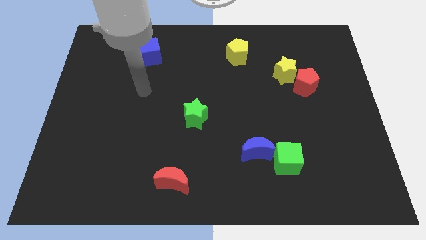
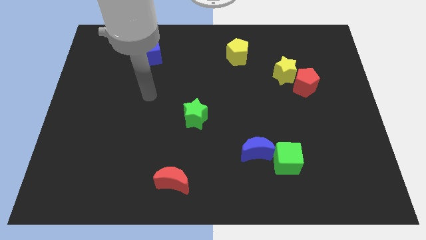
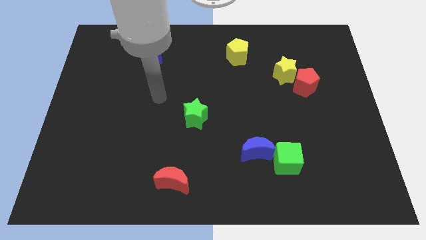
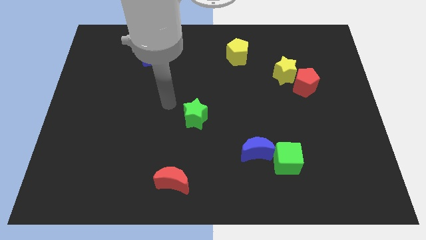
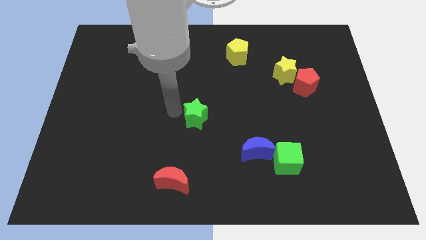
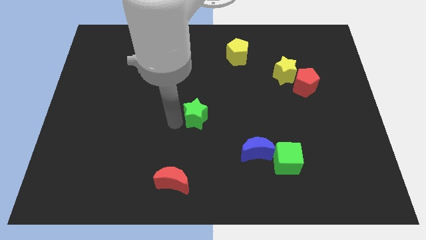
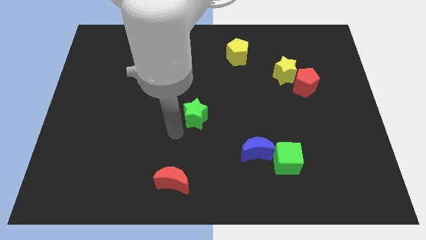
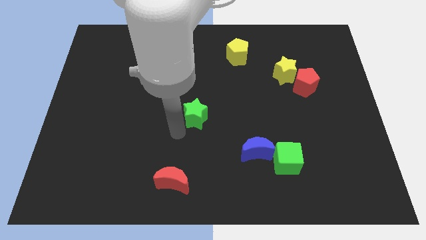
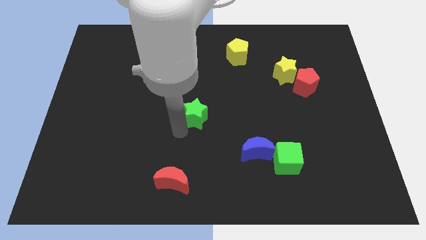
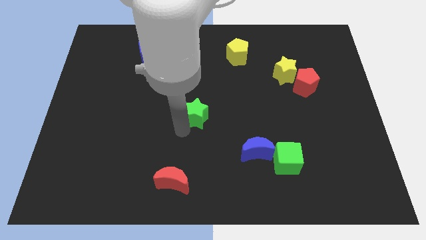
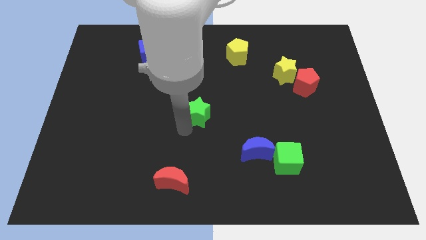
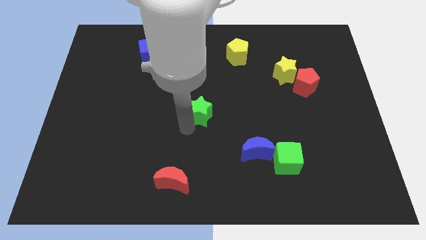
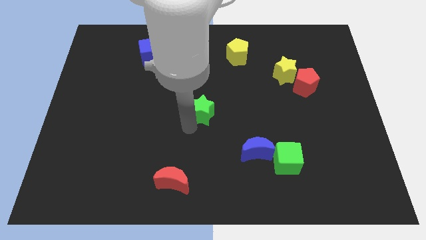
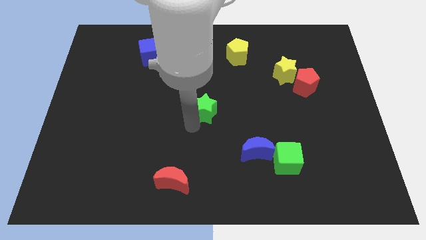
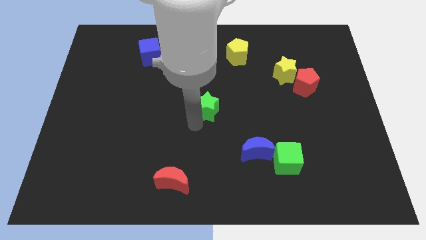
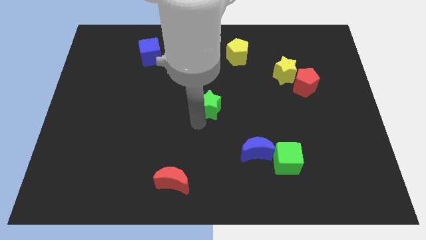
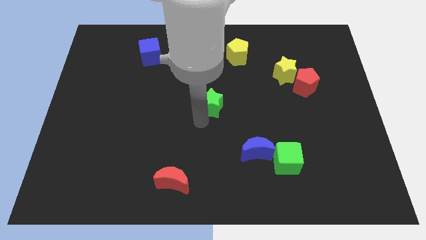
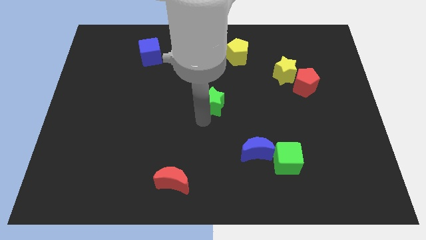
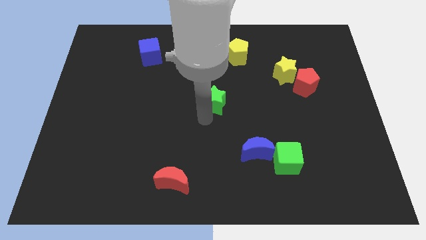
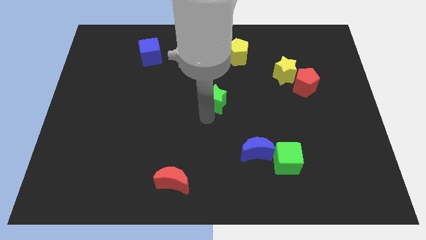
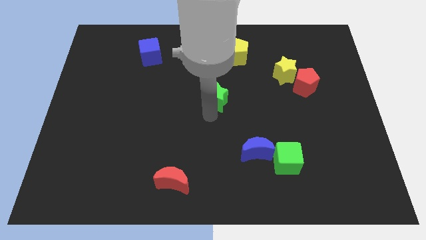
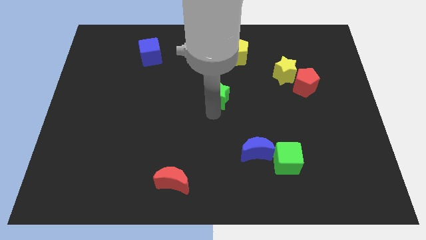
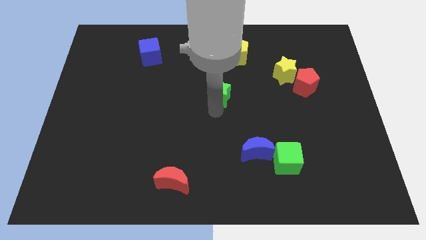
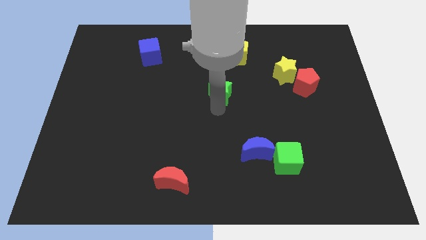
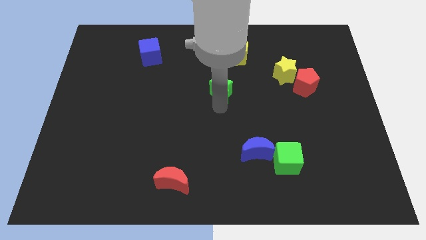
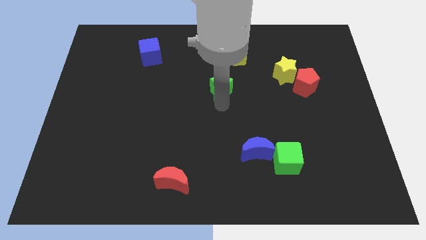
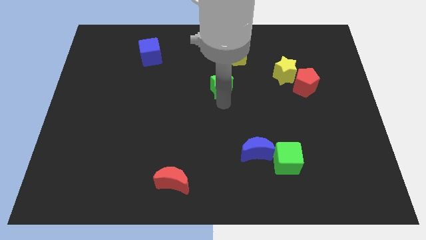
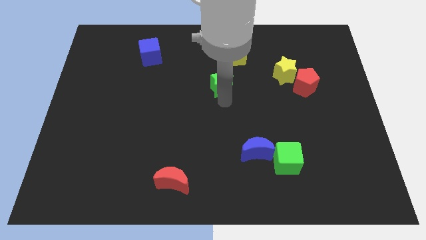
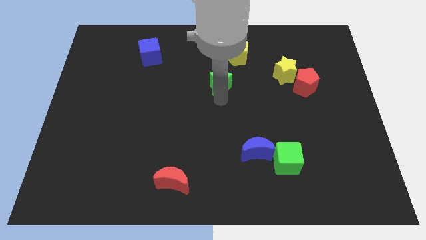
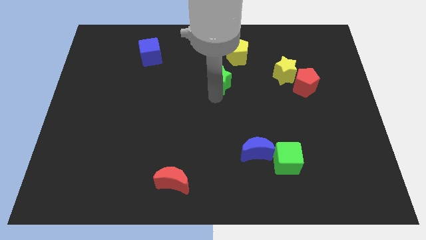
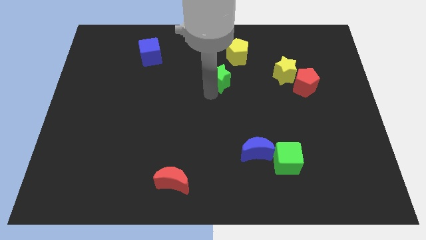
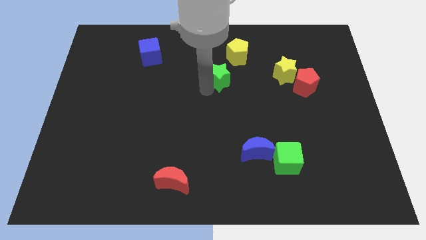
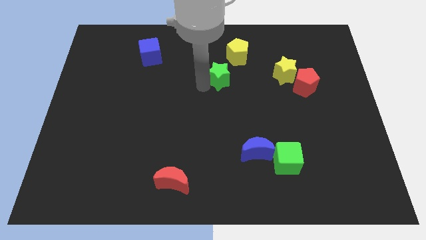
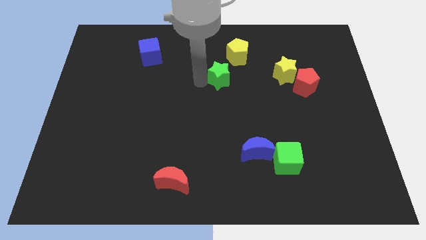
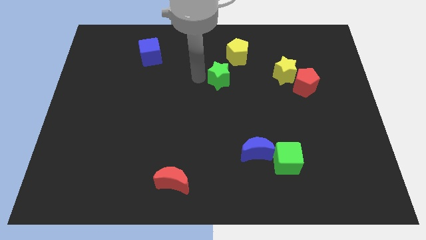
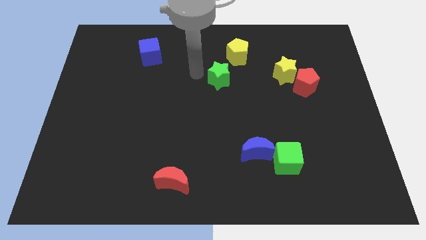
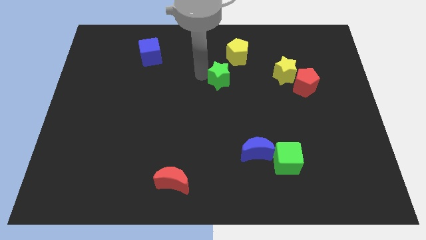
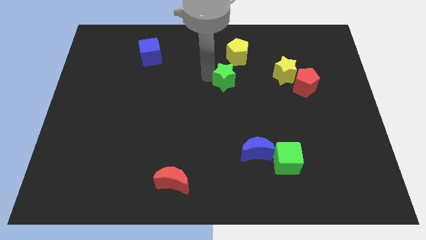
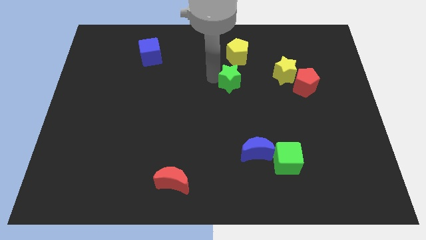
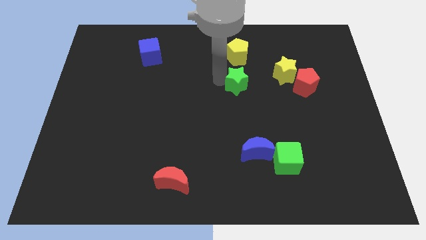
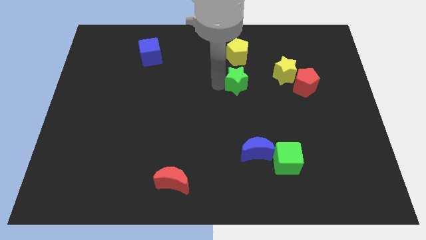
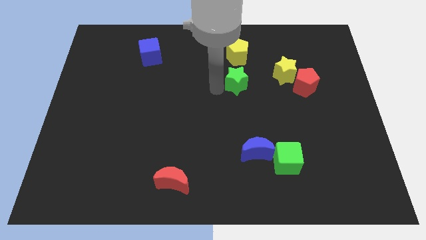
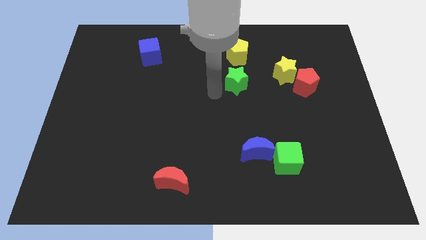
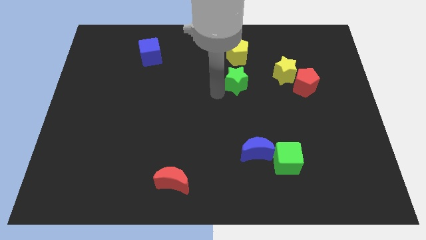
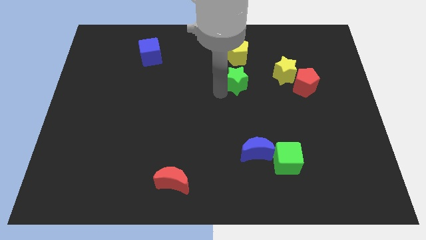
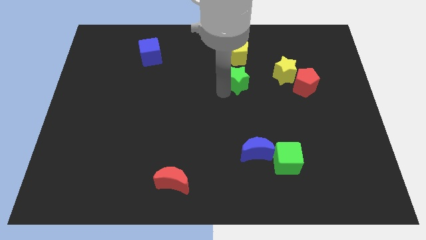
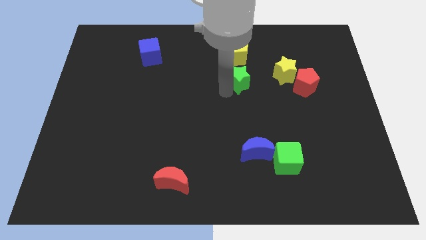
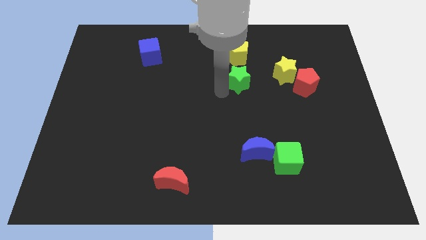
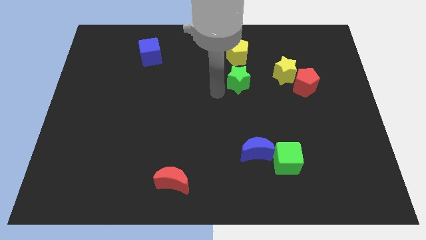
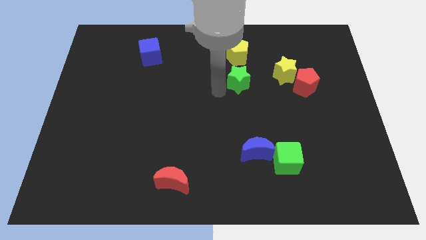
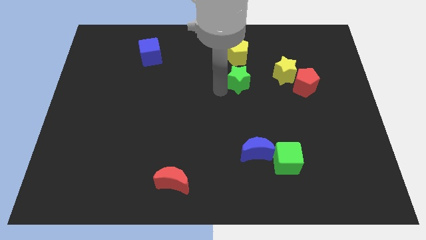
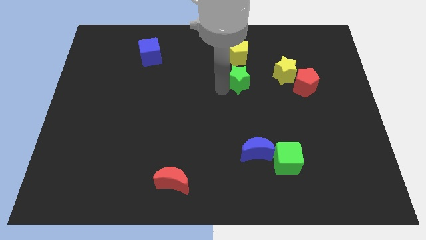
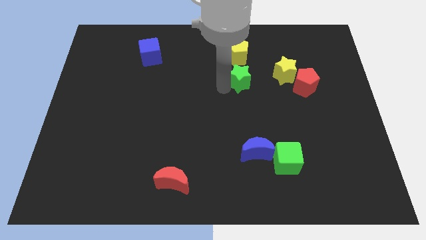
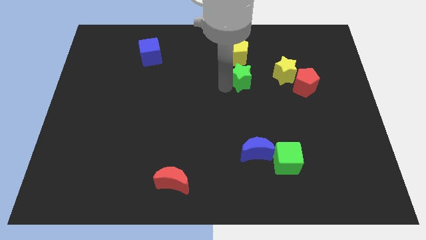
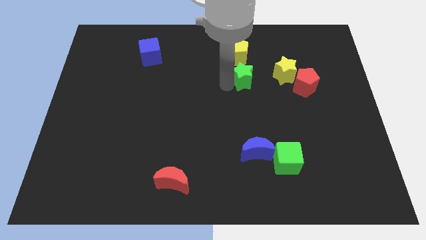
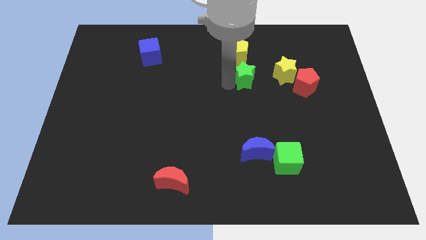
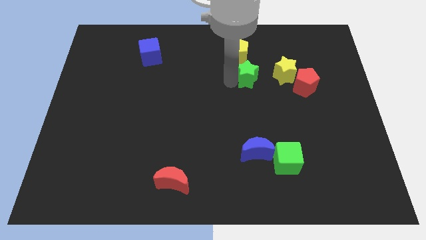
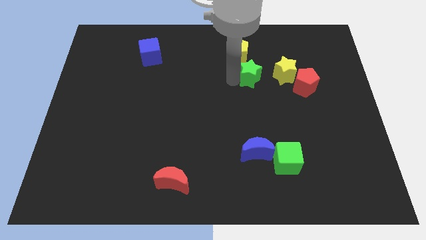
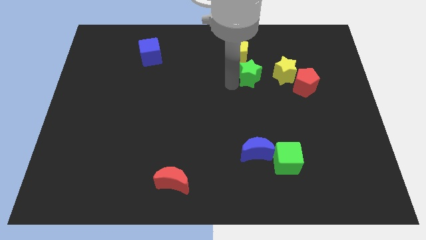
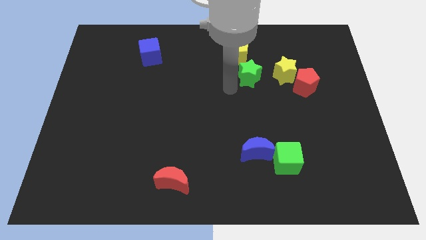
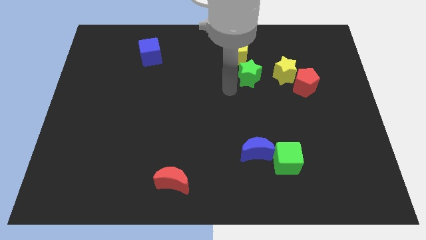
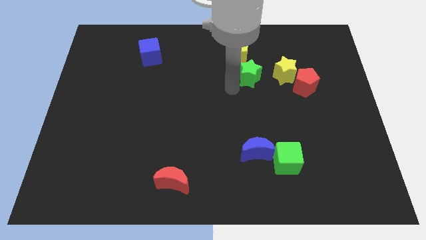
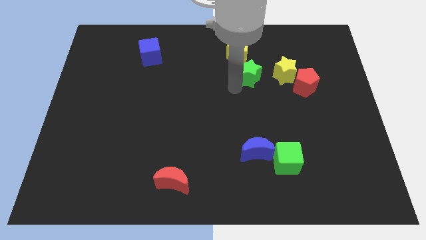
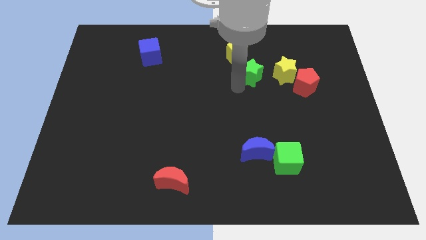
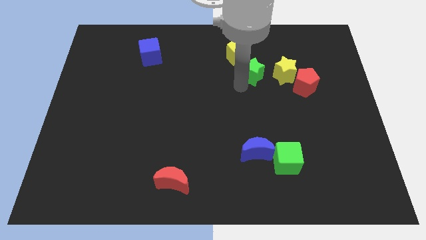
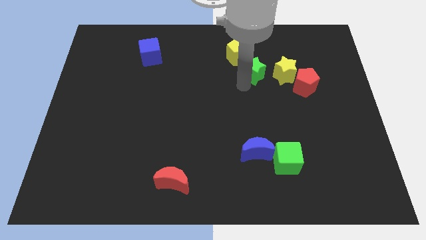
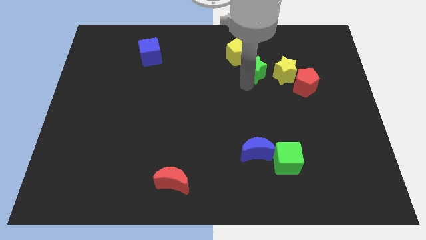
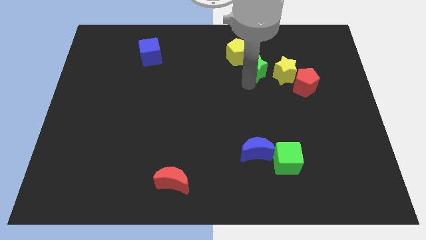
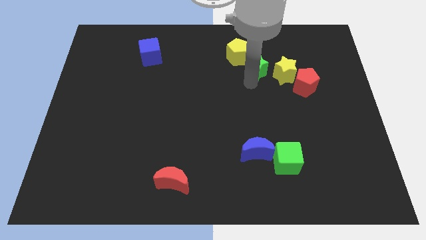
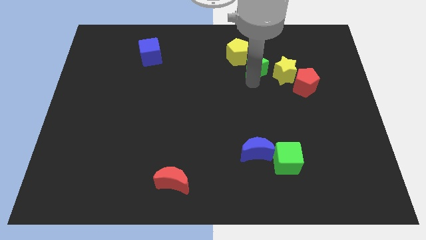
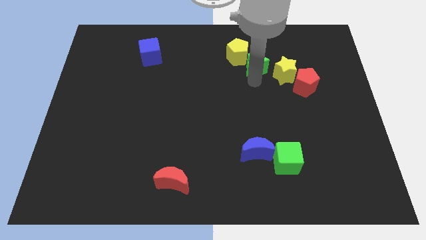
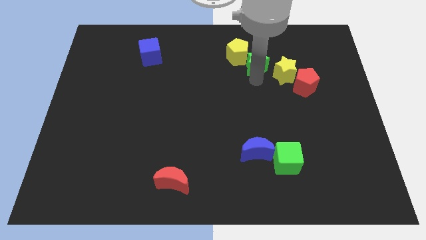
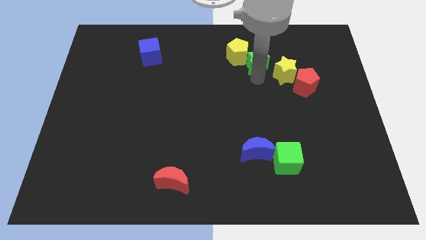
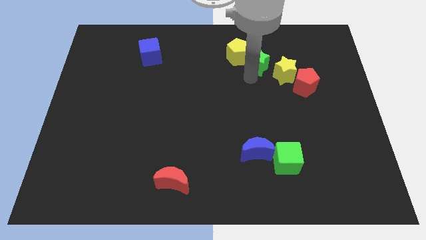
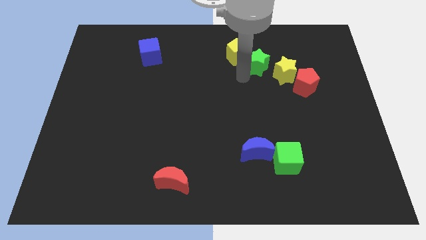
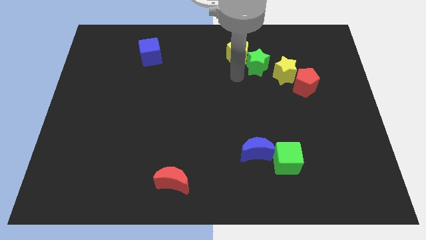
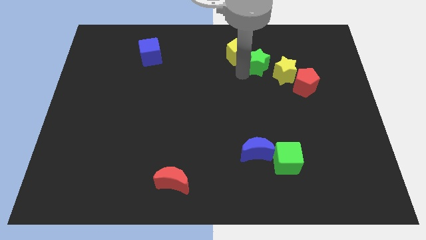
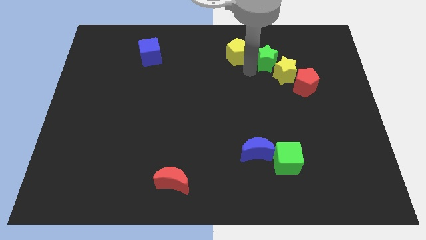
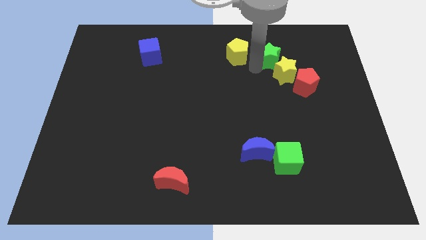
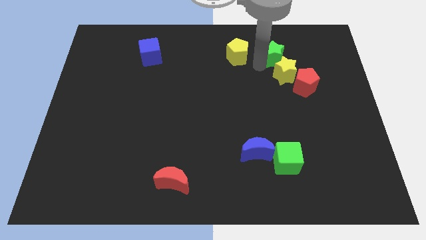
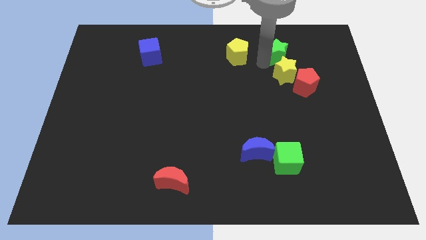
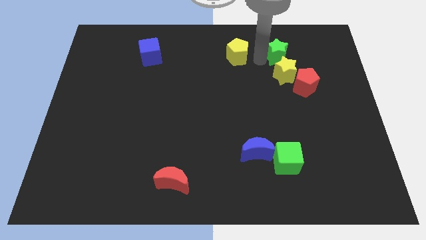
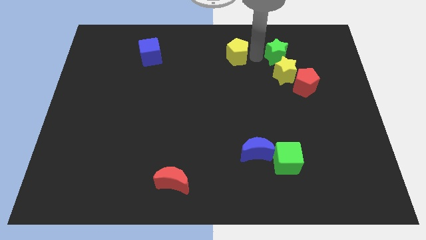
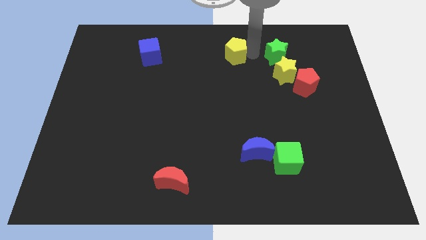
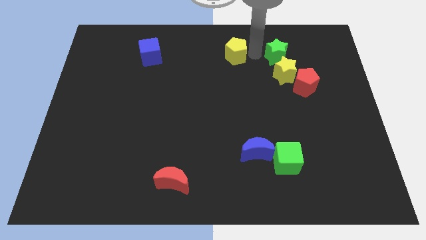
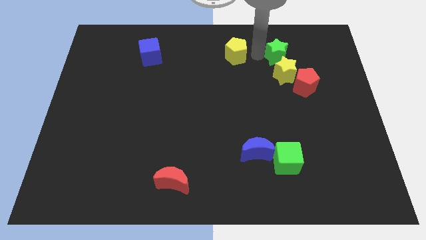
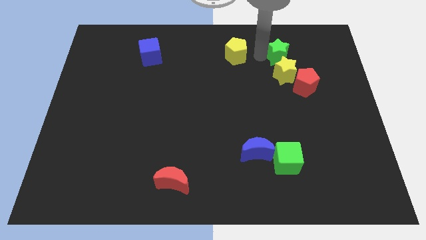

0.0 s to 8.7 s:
slide the green star diagonally up and to the right of the yellow star
